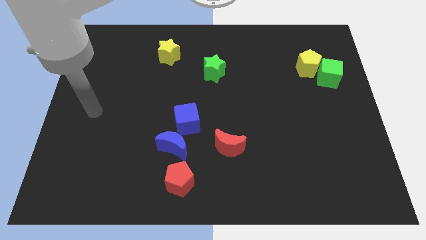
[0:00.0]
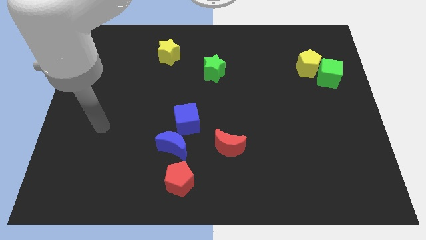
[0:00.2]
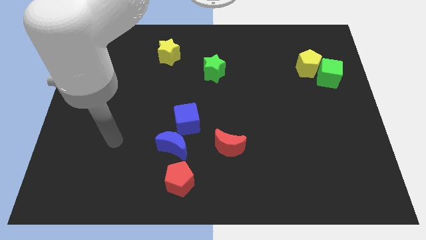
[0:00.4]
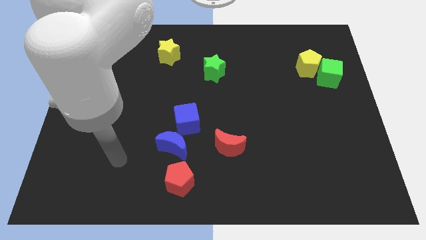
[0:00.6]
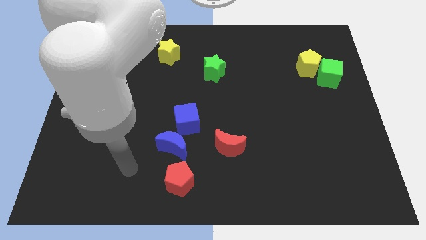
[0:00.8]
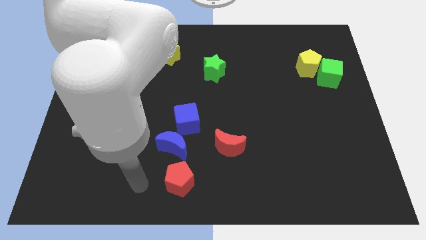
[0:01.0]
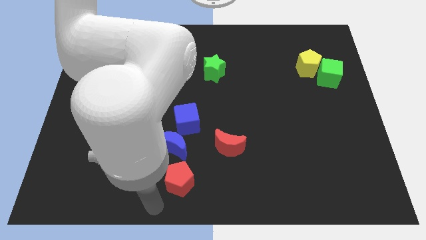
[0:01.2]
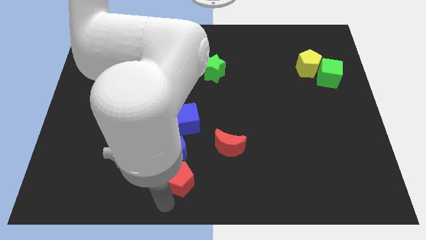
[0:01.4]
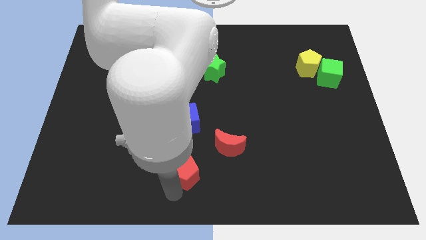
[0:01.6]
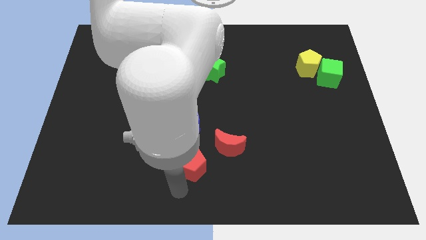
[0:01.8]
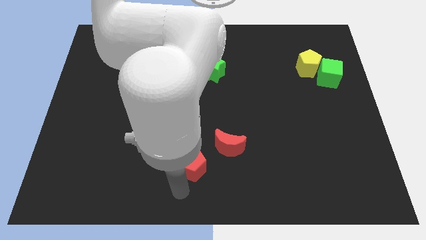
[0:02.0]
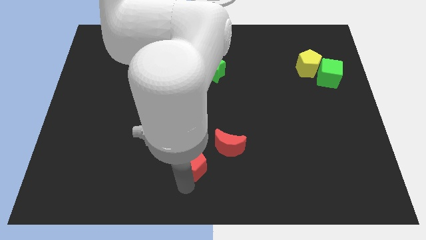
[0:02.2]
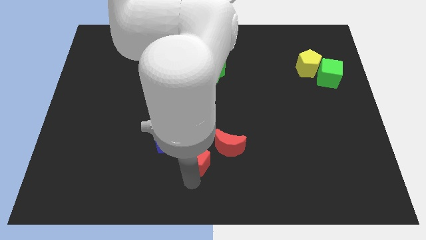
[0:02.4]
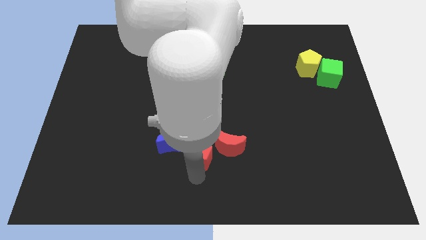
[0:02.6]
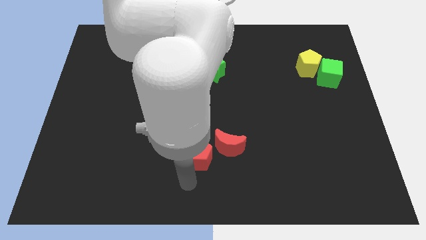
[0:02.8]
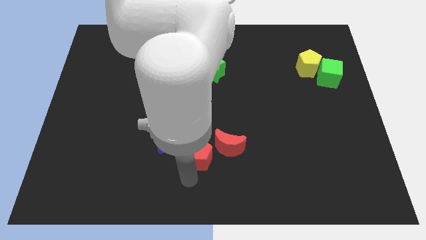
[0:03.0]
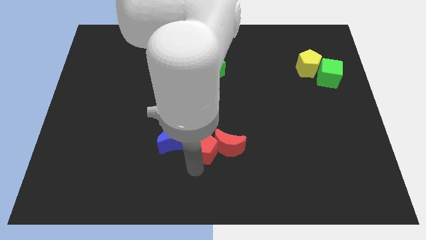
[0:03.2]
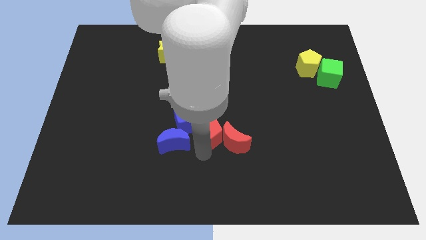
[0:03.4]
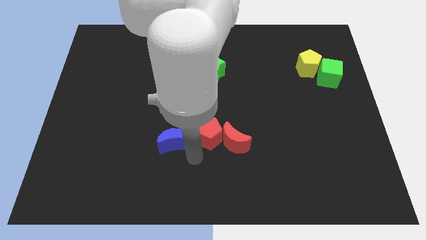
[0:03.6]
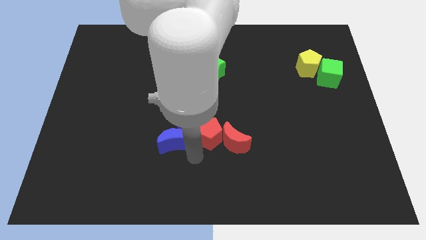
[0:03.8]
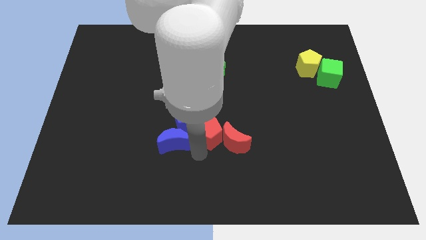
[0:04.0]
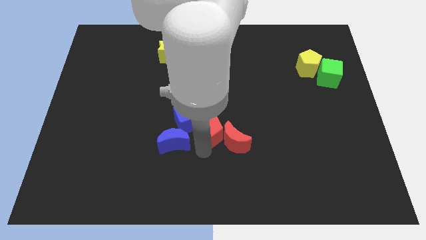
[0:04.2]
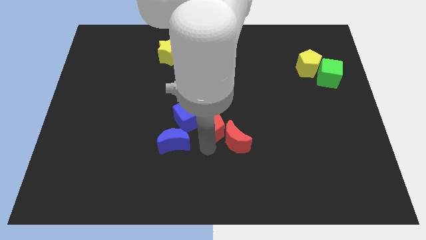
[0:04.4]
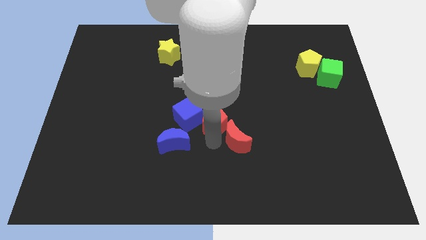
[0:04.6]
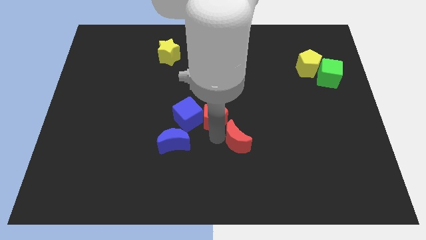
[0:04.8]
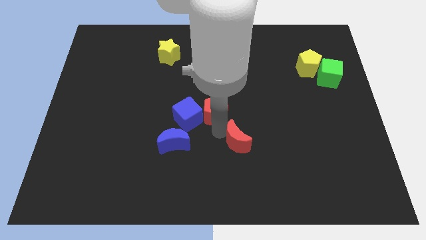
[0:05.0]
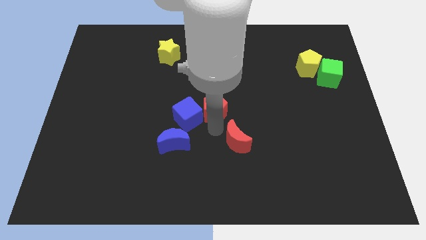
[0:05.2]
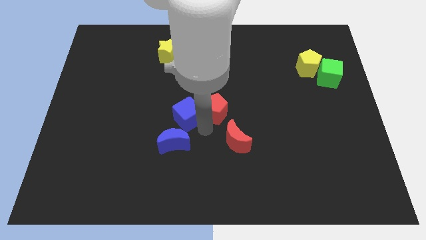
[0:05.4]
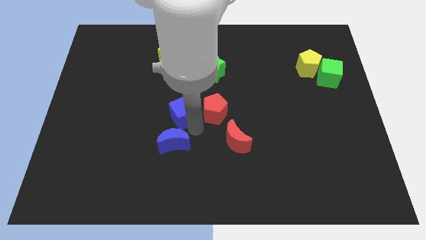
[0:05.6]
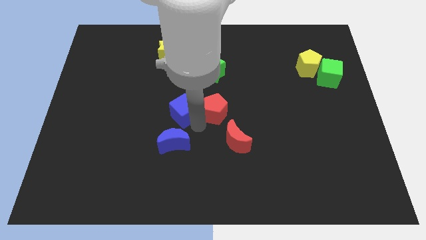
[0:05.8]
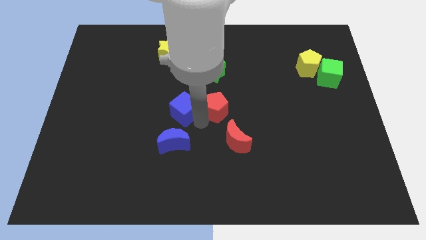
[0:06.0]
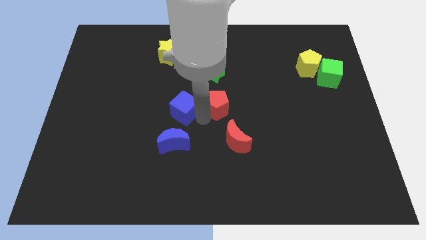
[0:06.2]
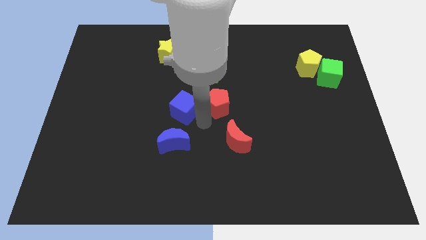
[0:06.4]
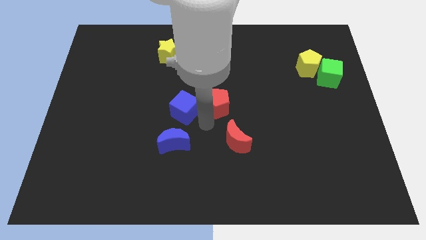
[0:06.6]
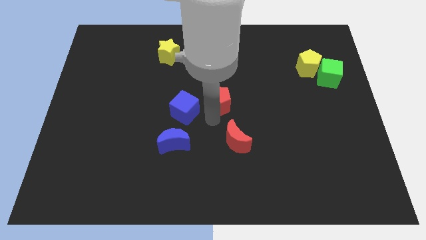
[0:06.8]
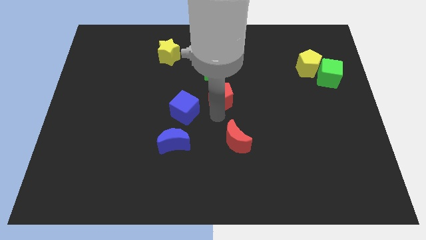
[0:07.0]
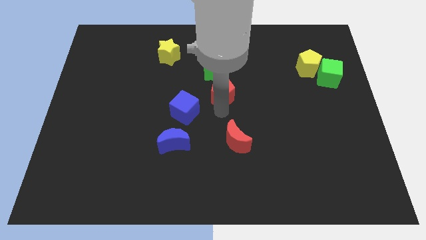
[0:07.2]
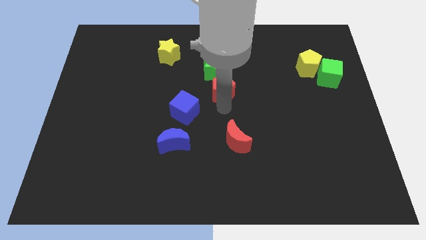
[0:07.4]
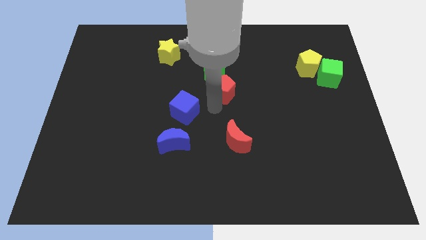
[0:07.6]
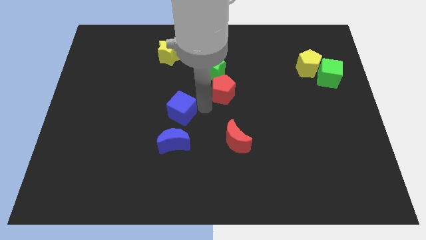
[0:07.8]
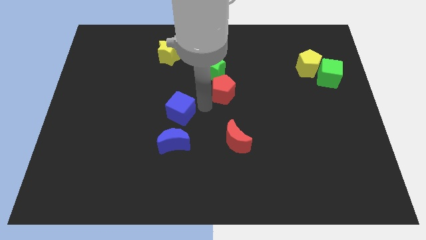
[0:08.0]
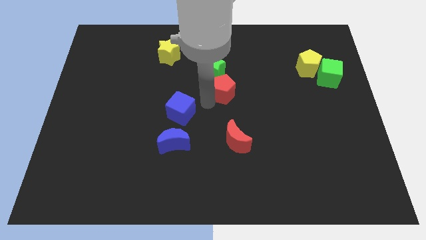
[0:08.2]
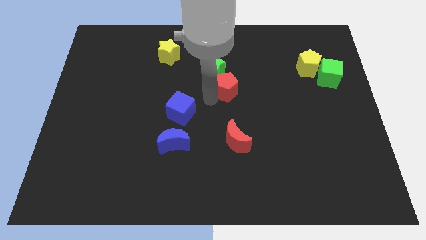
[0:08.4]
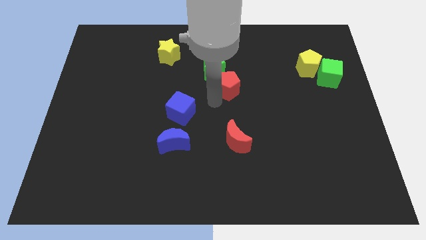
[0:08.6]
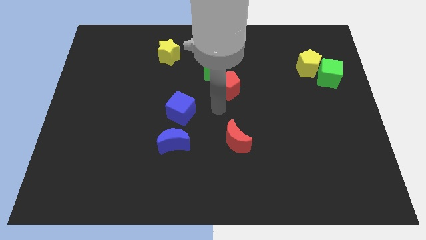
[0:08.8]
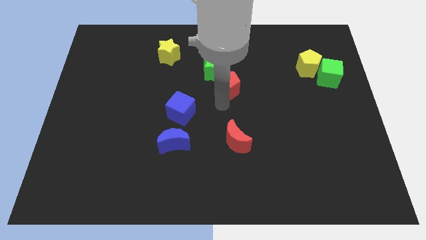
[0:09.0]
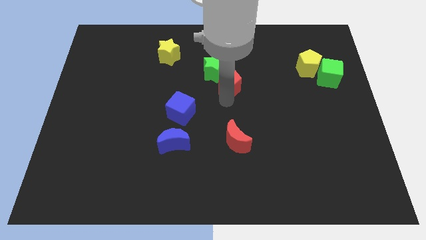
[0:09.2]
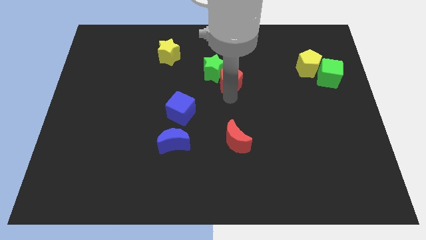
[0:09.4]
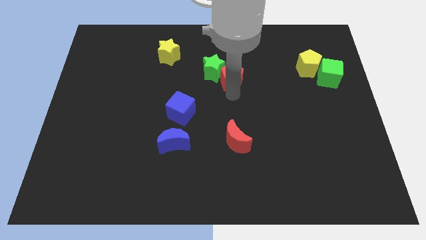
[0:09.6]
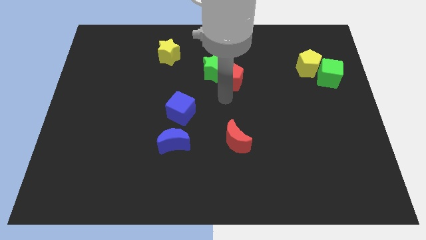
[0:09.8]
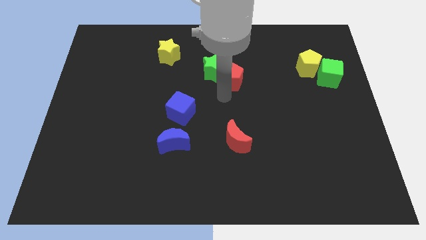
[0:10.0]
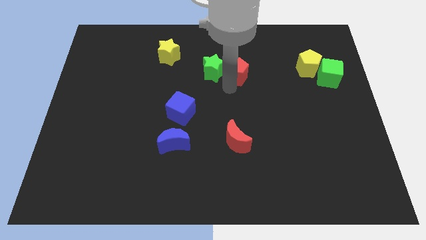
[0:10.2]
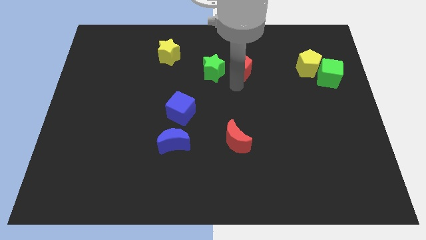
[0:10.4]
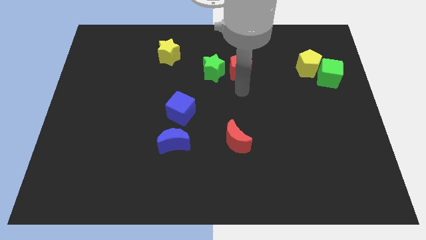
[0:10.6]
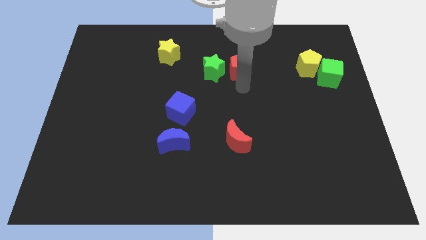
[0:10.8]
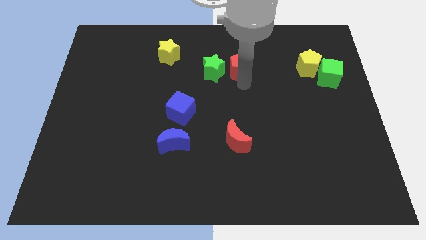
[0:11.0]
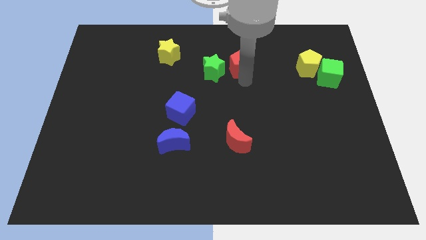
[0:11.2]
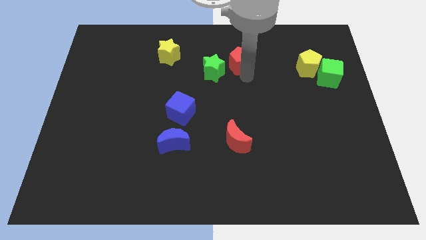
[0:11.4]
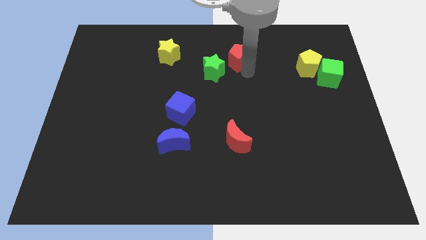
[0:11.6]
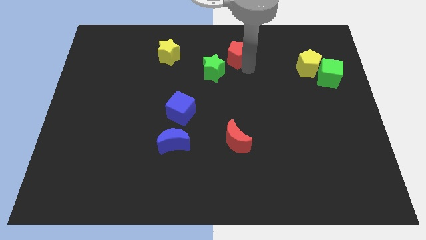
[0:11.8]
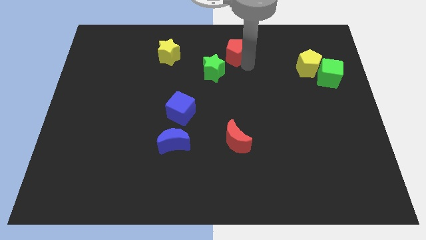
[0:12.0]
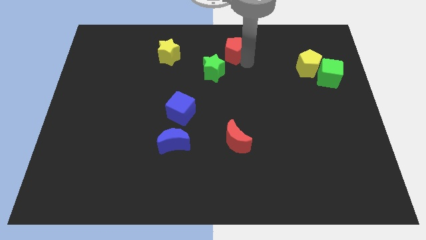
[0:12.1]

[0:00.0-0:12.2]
move the red pentagon to the towards your base
